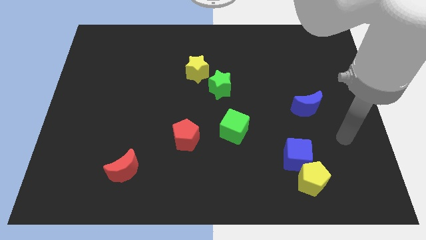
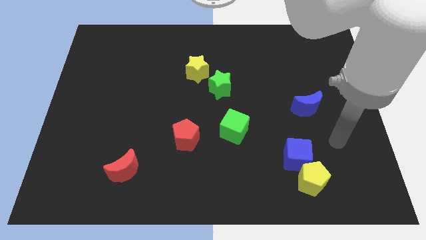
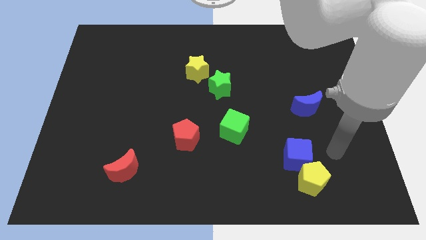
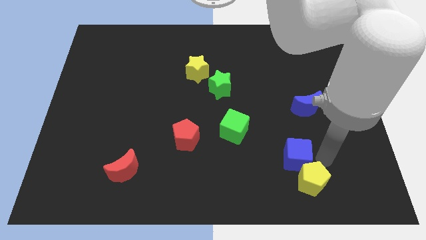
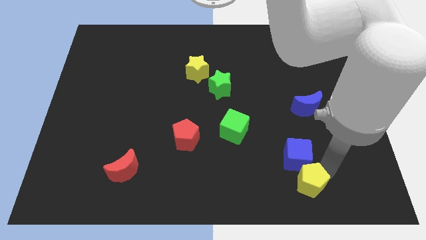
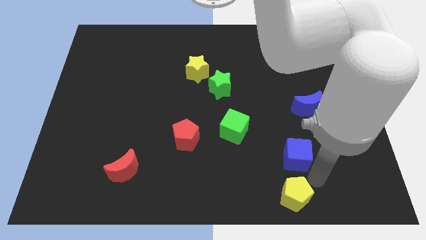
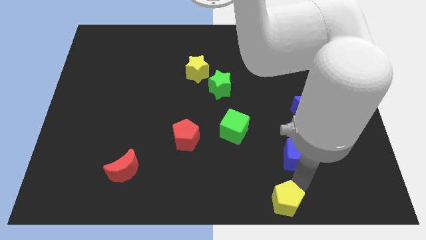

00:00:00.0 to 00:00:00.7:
pull the blue cube apart from the yellow pentagon

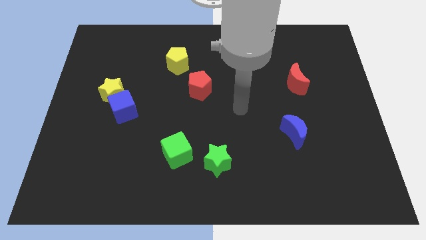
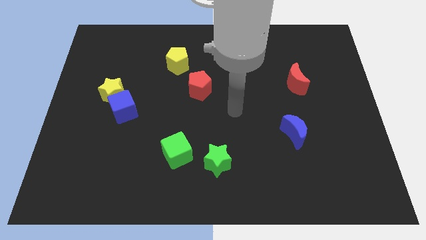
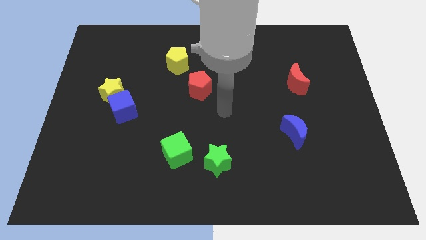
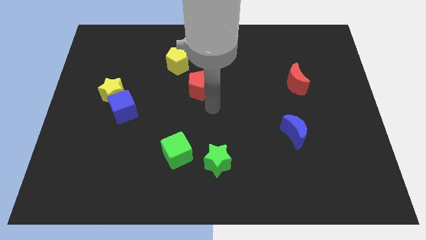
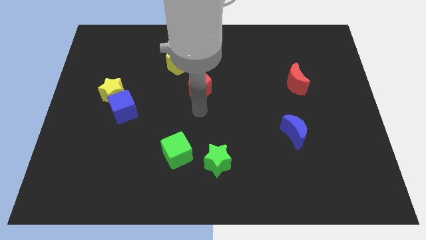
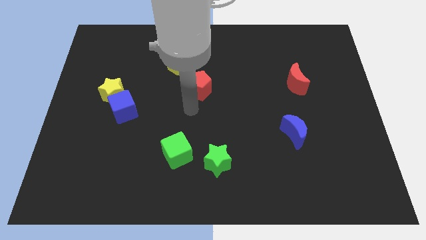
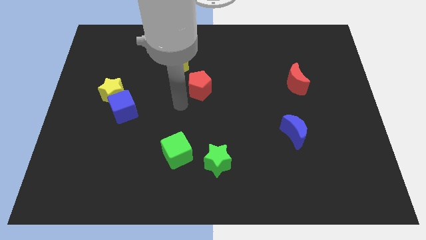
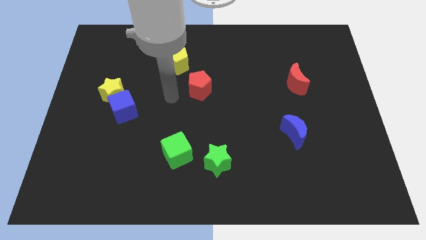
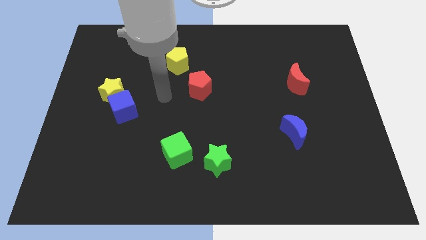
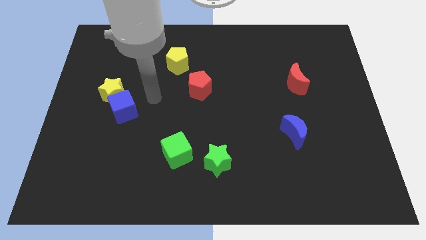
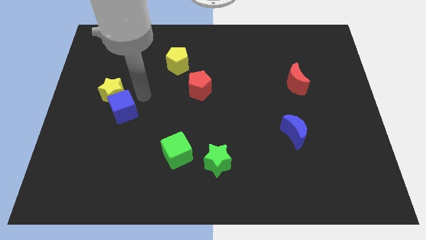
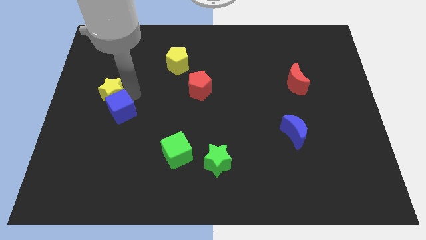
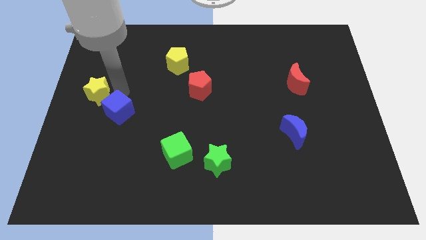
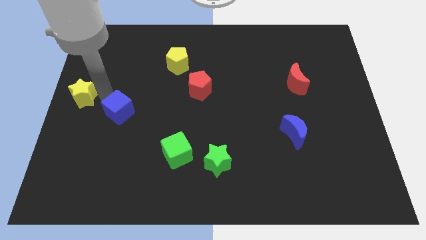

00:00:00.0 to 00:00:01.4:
move the blue cube away from the yellow star

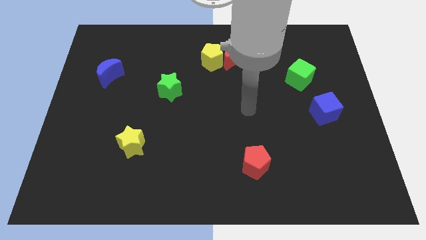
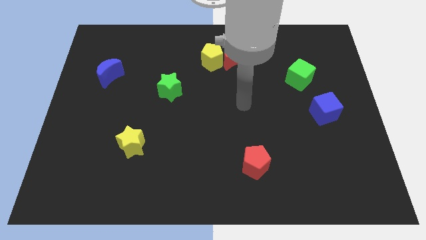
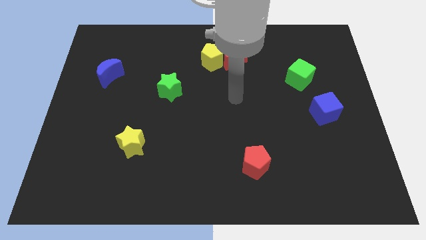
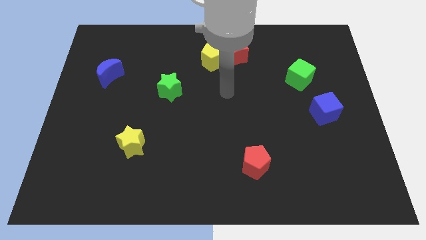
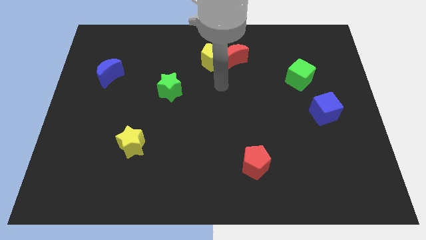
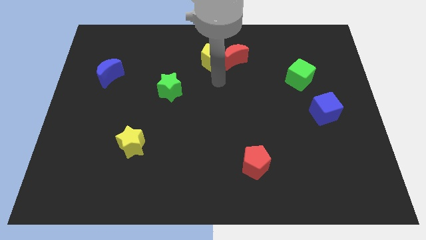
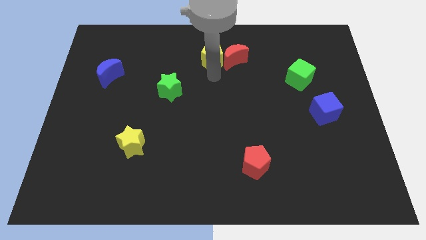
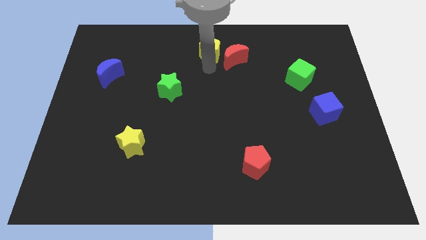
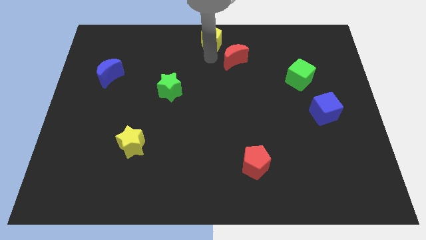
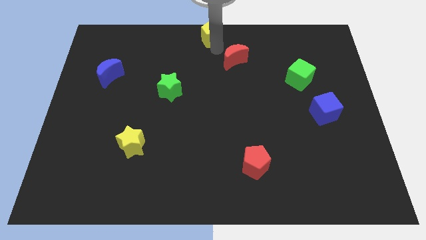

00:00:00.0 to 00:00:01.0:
pull the red moon apart from the yellow pentagon

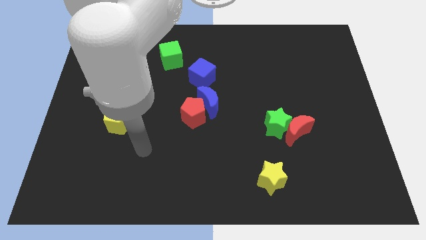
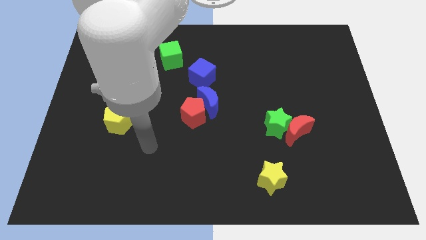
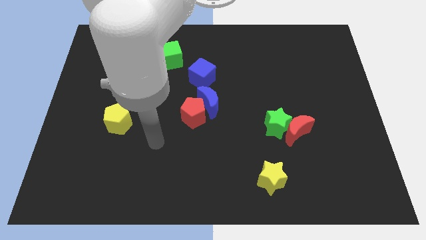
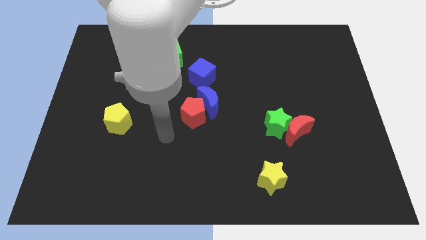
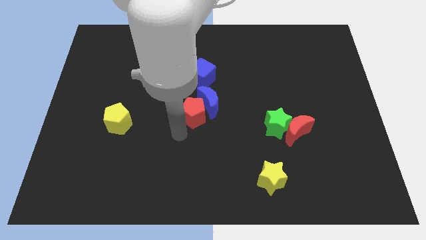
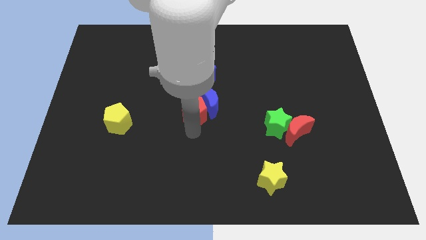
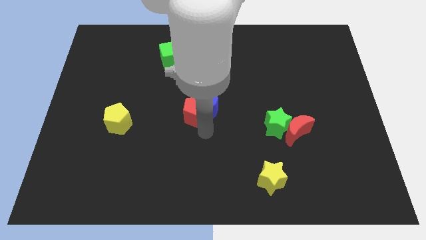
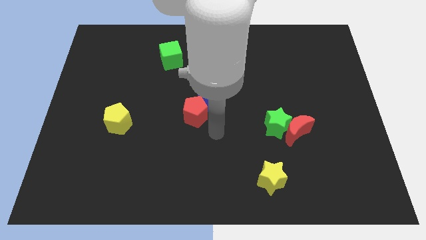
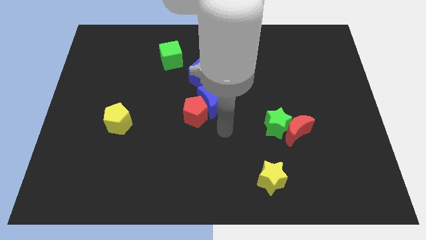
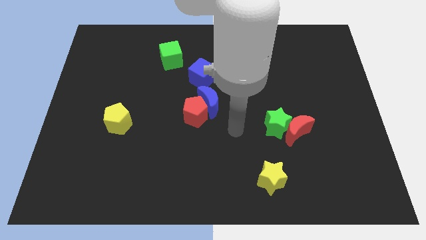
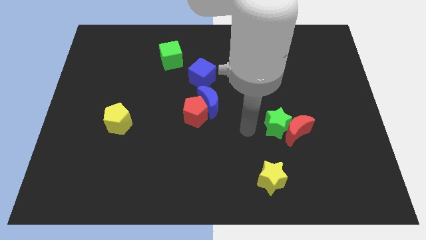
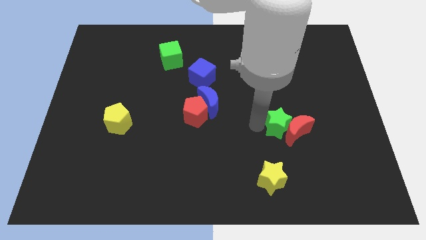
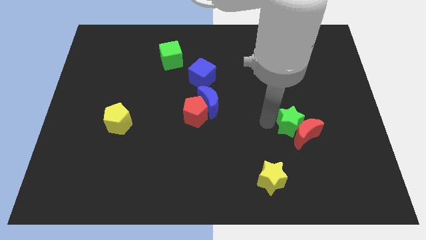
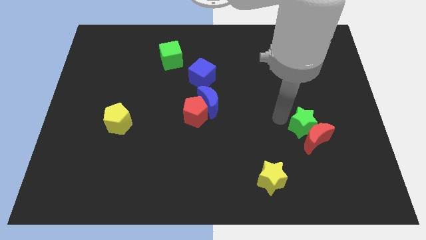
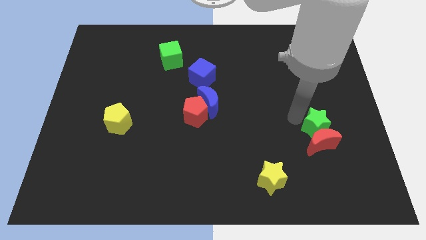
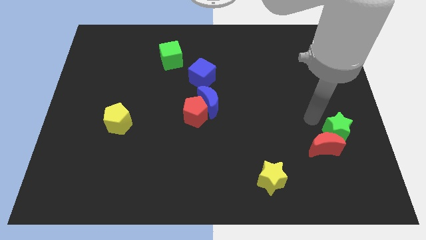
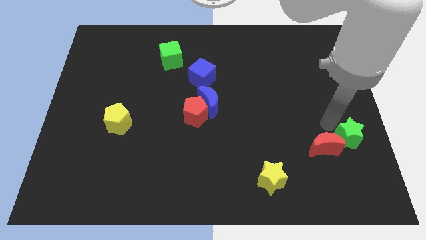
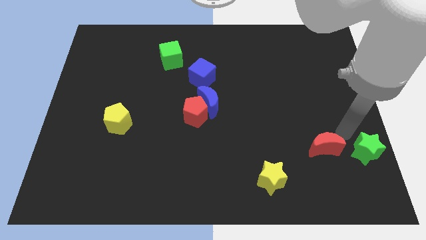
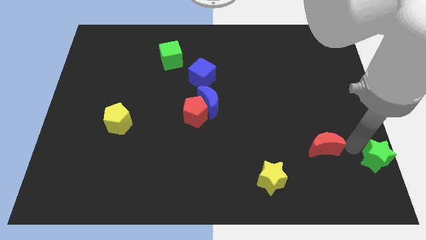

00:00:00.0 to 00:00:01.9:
separate the red moon from the green star

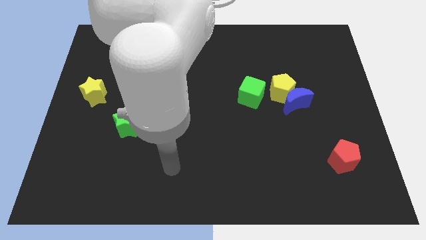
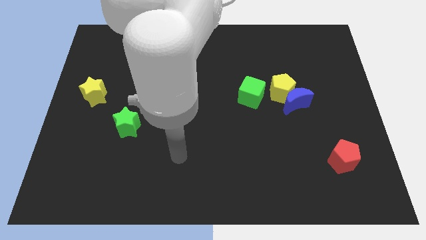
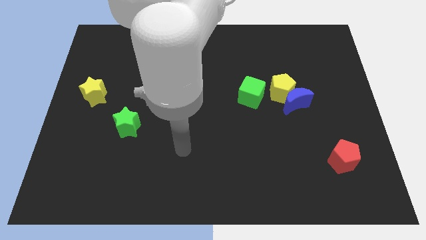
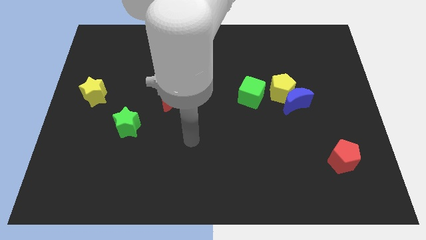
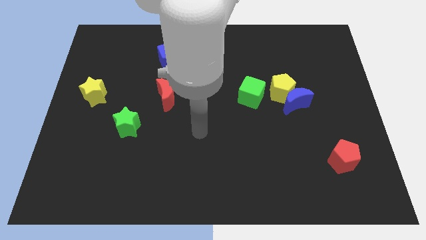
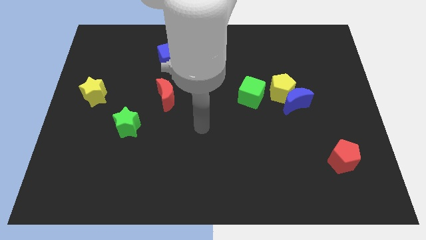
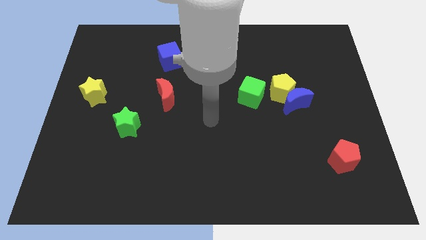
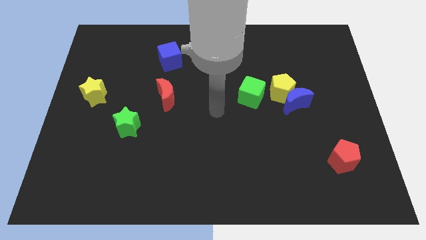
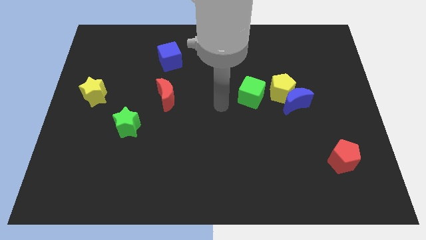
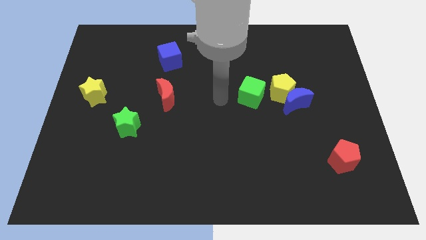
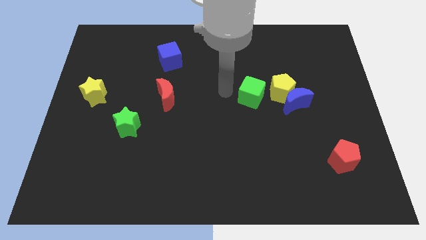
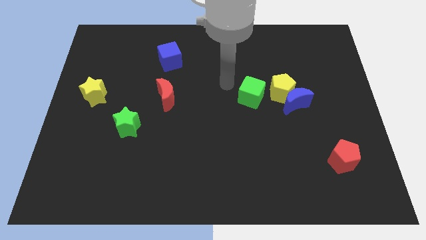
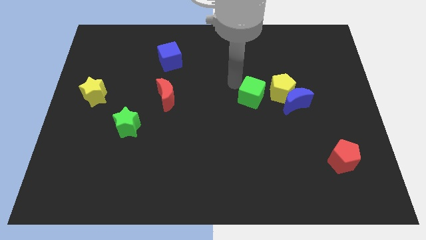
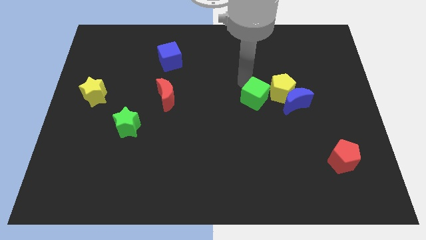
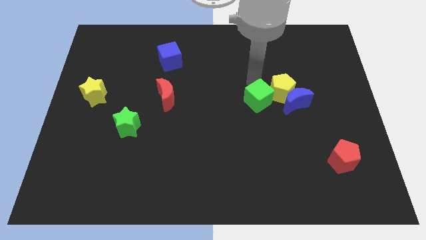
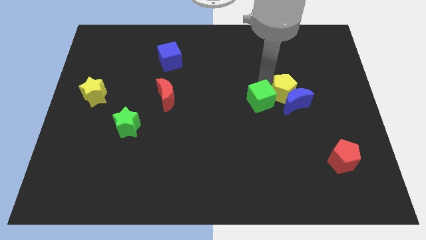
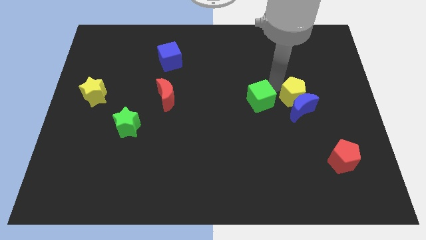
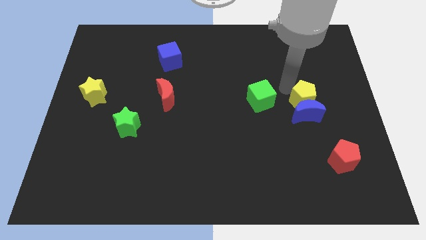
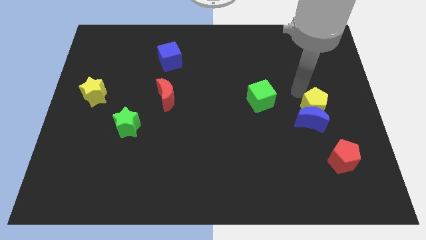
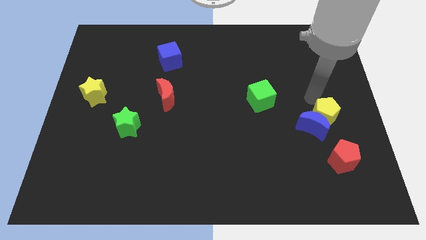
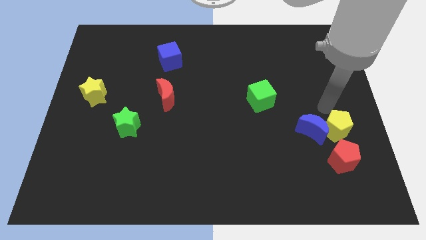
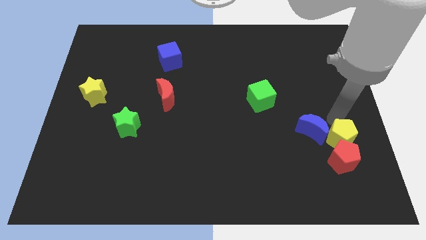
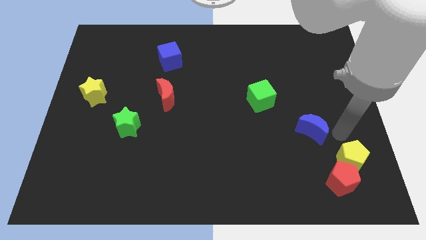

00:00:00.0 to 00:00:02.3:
move the blue moon away from the yellow pentagon

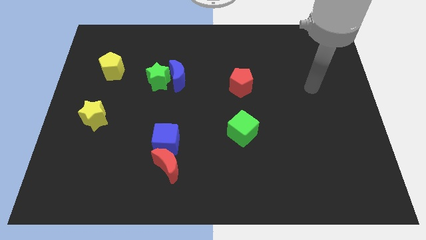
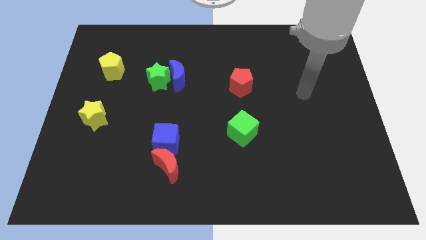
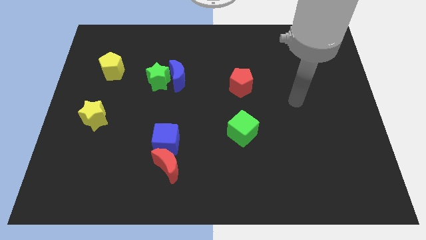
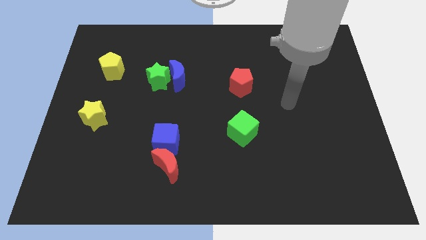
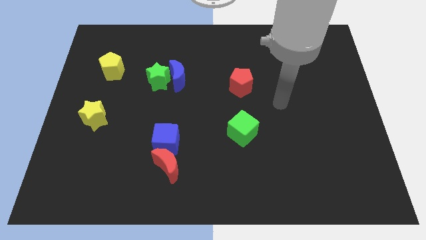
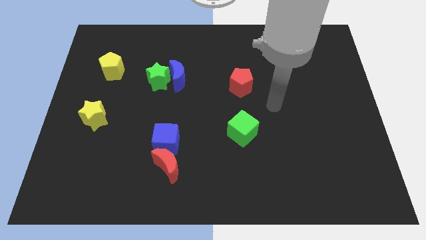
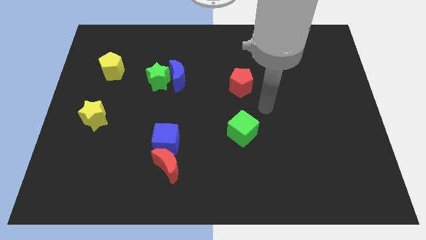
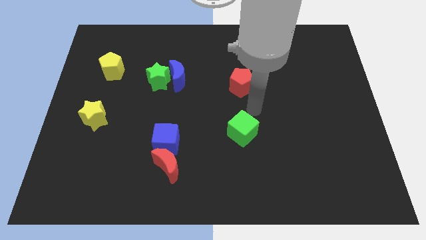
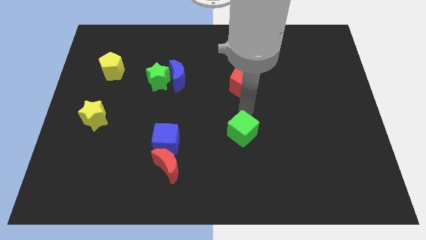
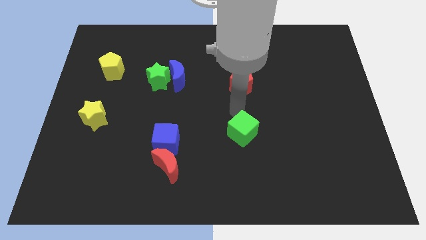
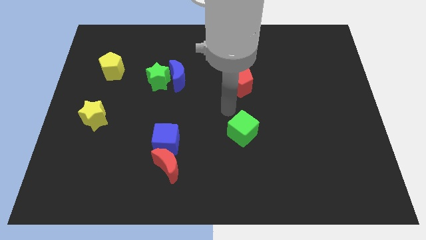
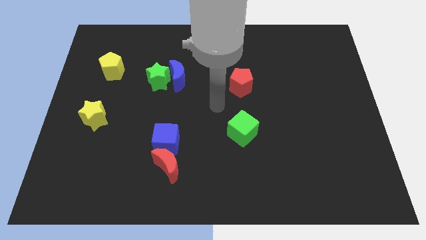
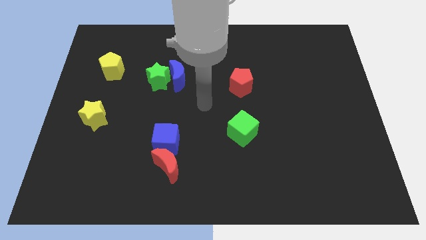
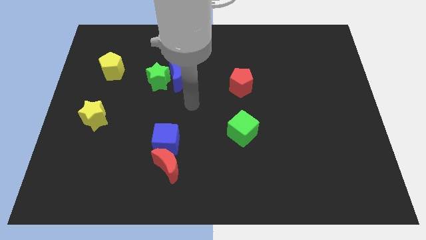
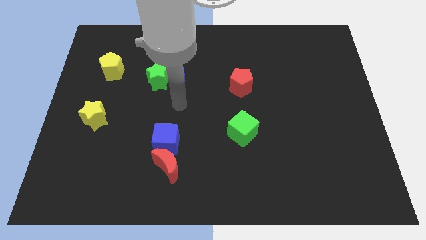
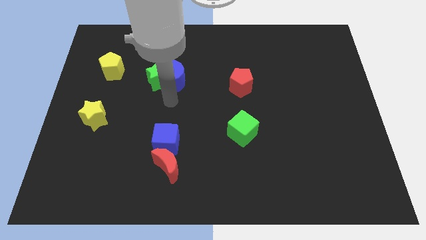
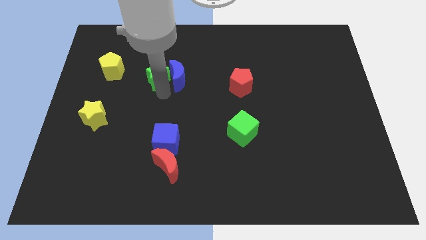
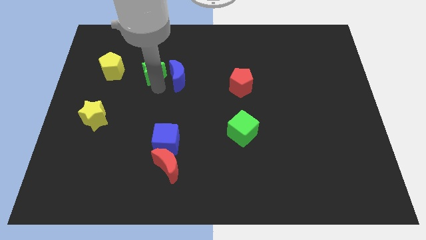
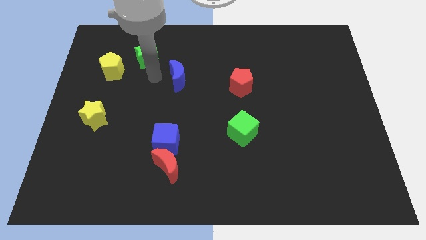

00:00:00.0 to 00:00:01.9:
pull the blue moon apart from the green star
